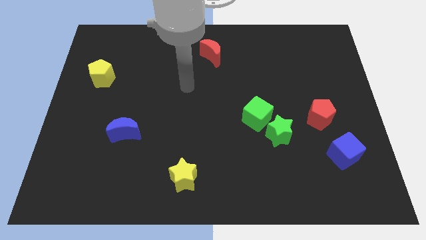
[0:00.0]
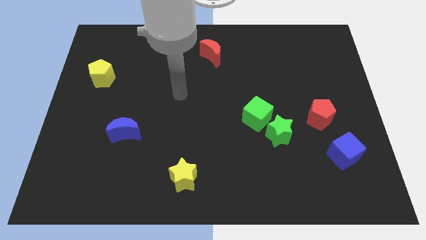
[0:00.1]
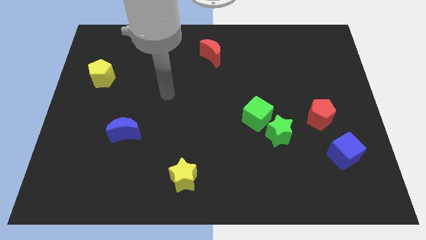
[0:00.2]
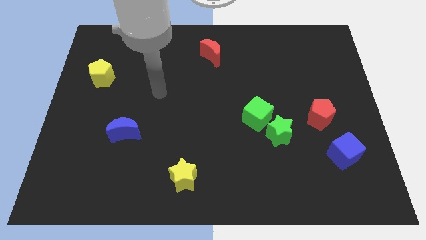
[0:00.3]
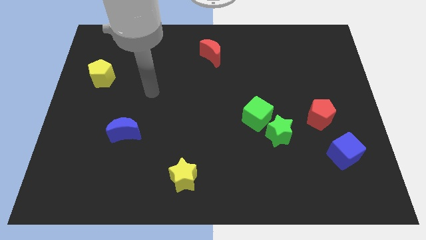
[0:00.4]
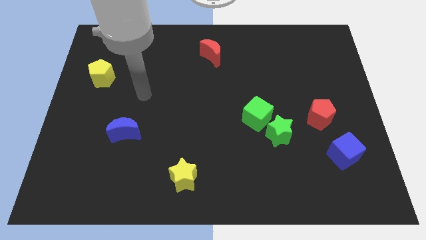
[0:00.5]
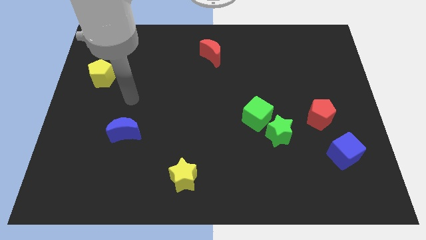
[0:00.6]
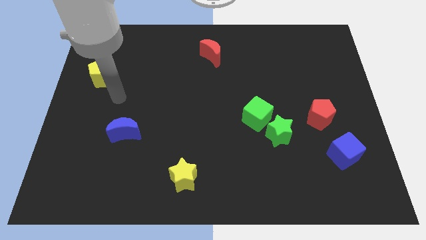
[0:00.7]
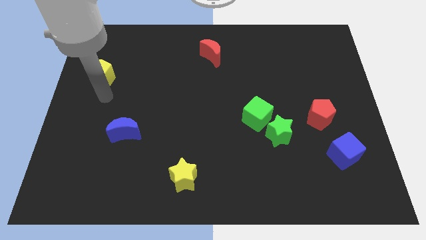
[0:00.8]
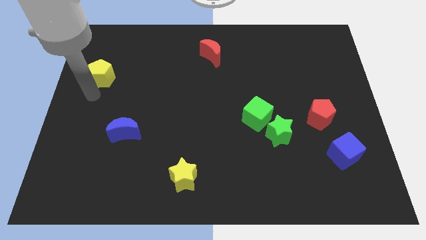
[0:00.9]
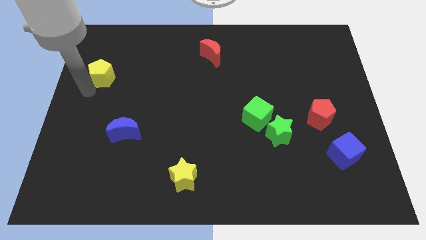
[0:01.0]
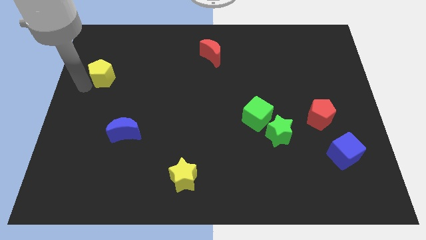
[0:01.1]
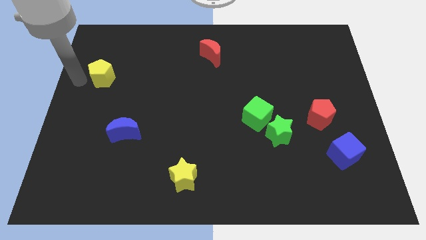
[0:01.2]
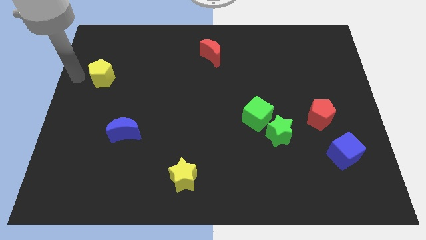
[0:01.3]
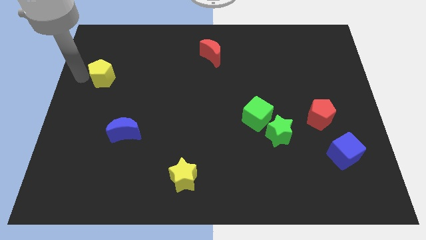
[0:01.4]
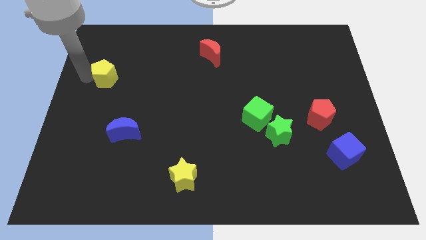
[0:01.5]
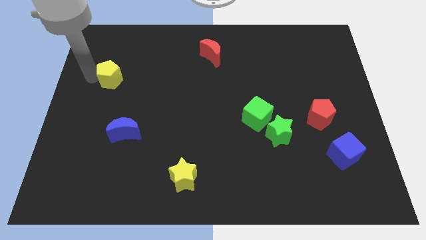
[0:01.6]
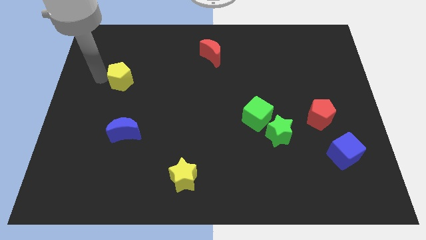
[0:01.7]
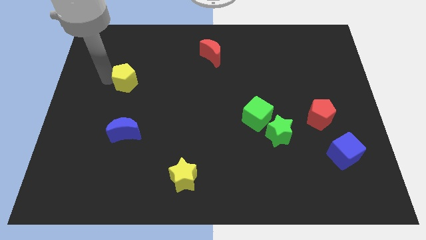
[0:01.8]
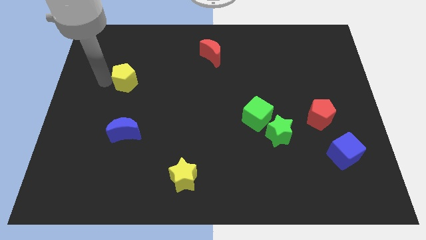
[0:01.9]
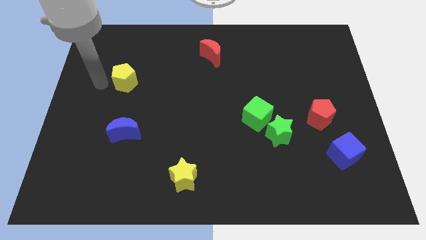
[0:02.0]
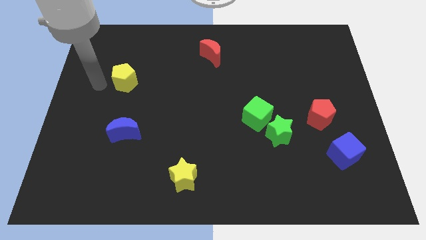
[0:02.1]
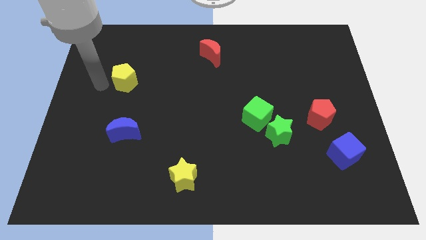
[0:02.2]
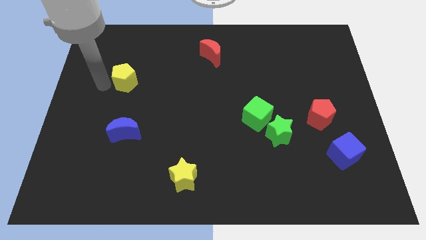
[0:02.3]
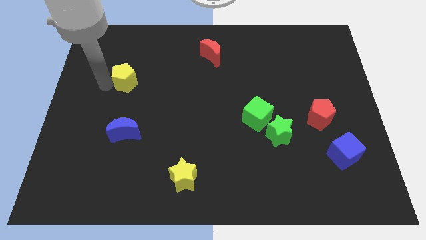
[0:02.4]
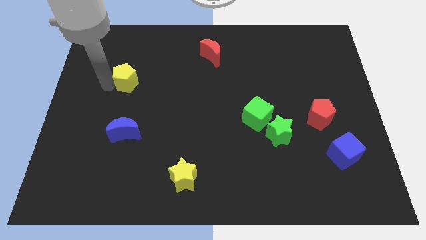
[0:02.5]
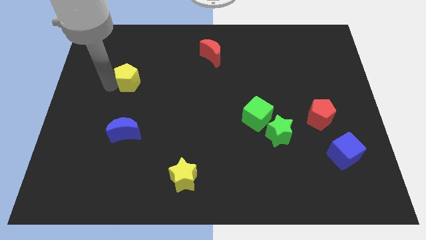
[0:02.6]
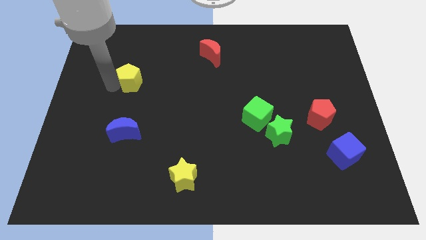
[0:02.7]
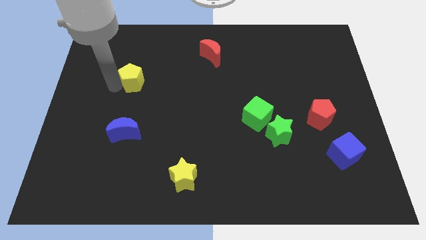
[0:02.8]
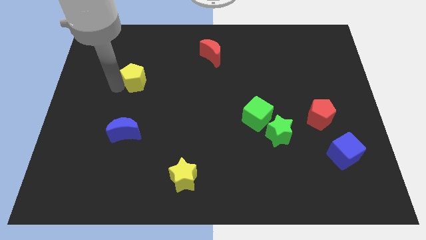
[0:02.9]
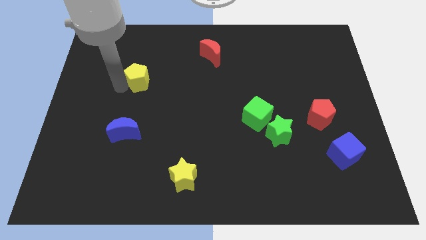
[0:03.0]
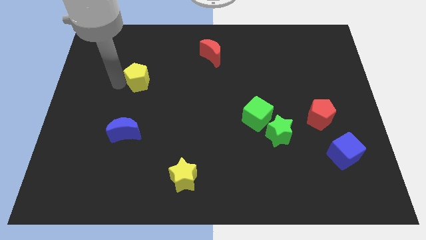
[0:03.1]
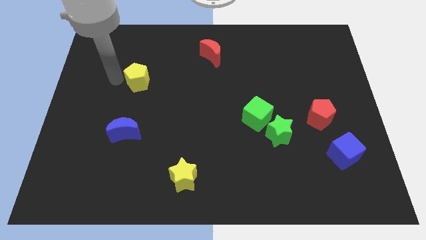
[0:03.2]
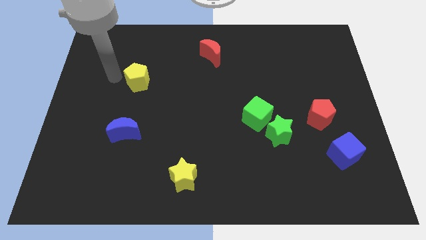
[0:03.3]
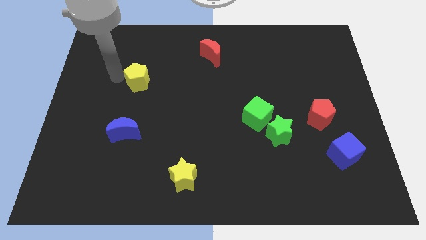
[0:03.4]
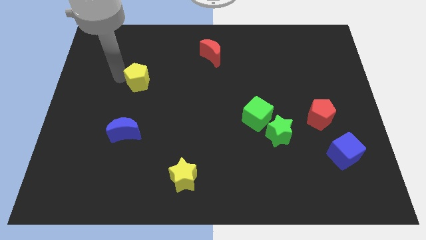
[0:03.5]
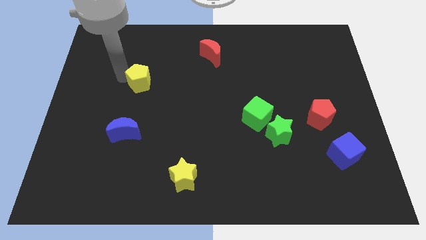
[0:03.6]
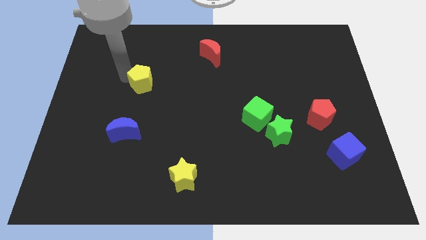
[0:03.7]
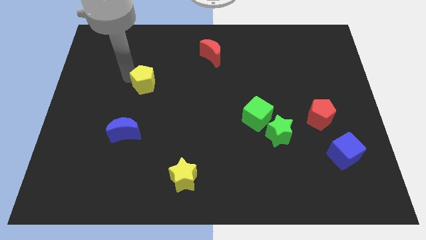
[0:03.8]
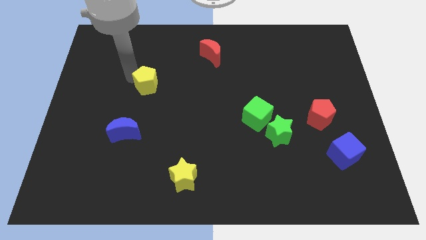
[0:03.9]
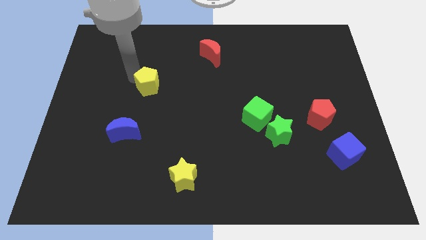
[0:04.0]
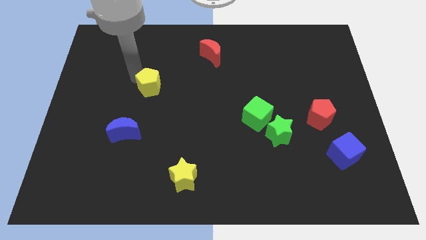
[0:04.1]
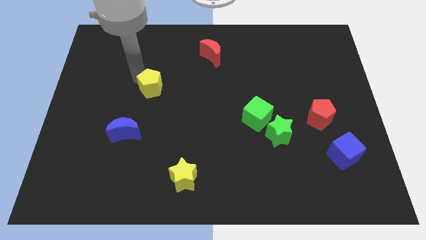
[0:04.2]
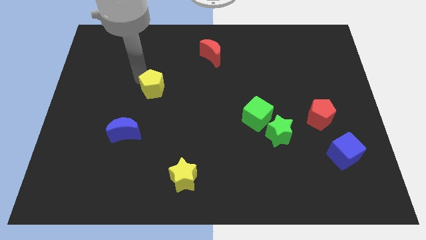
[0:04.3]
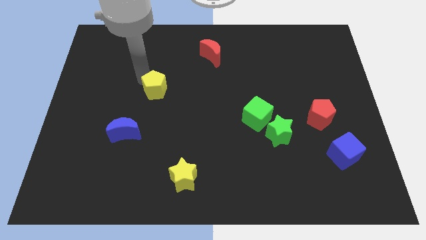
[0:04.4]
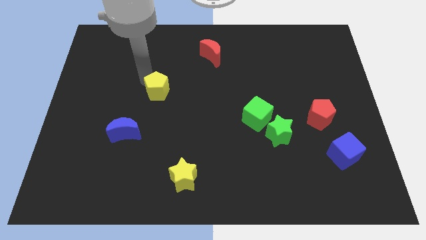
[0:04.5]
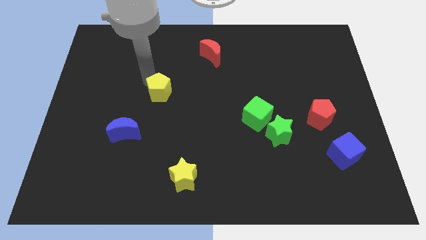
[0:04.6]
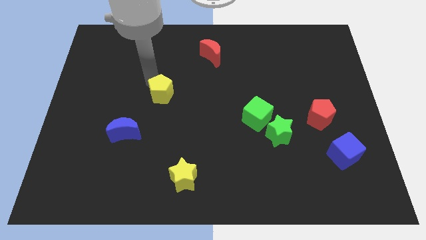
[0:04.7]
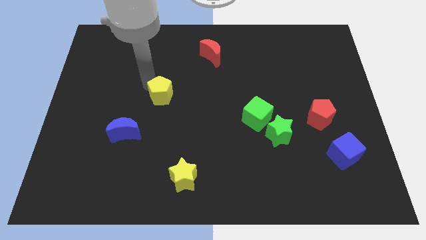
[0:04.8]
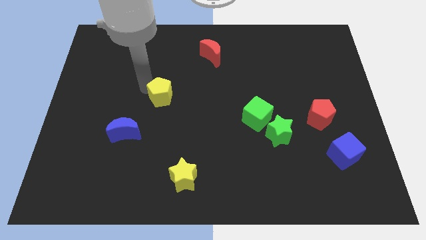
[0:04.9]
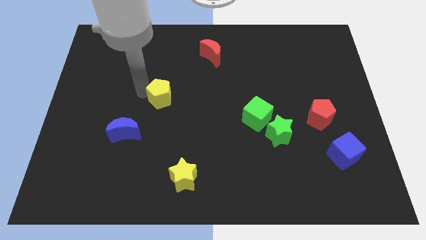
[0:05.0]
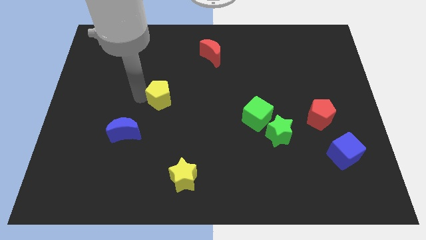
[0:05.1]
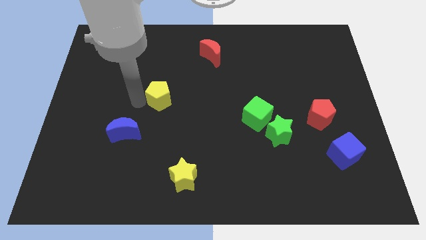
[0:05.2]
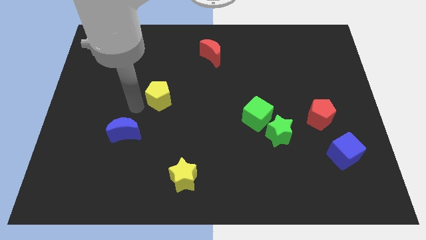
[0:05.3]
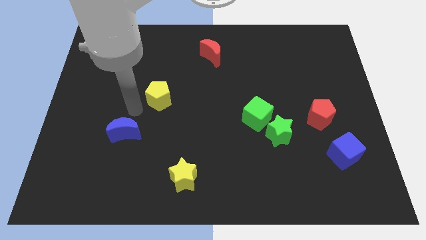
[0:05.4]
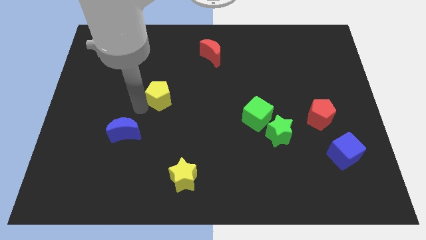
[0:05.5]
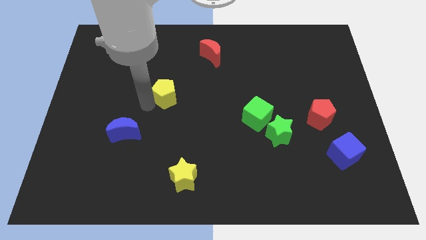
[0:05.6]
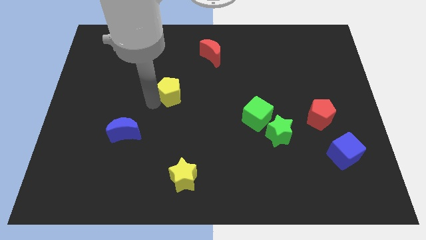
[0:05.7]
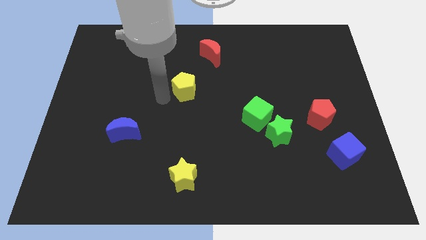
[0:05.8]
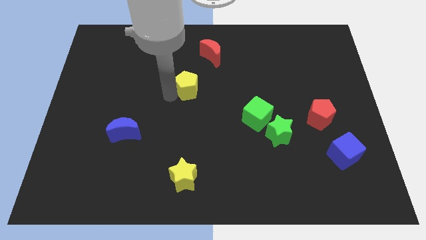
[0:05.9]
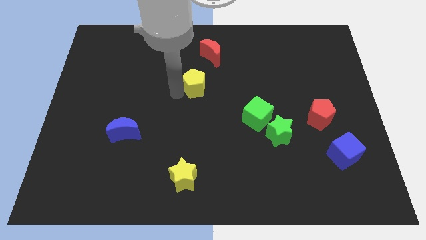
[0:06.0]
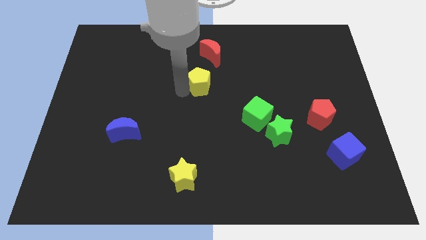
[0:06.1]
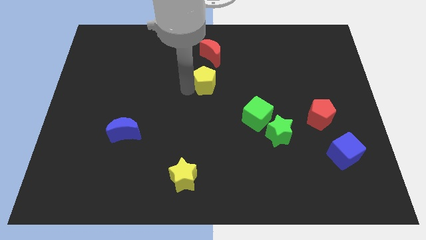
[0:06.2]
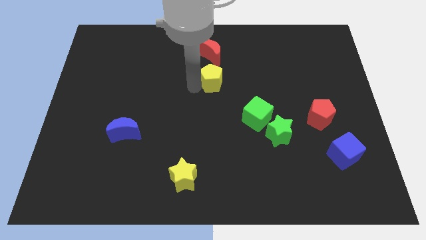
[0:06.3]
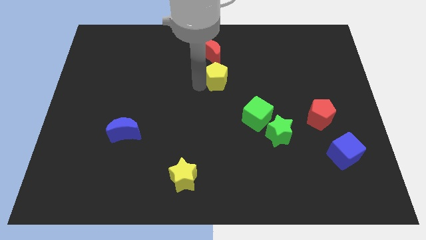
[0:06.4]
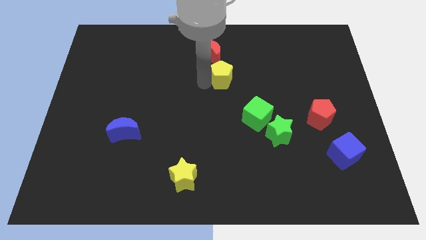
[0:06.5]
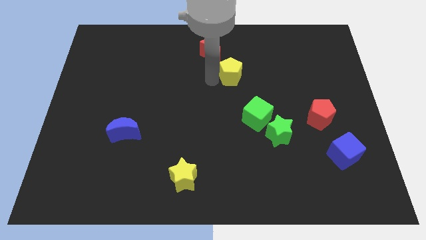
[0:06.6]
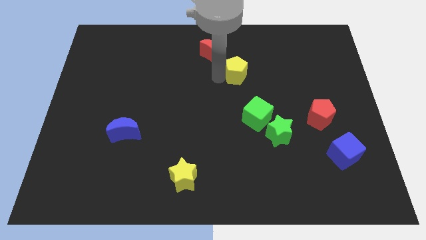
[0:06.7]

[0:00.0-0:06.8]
put the yellow pentagon to the top side of the green cube
